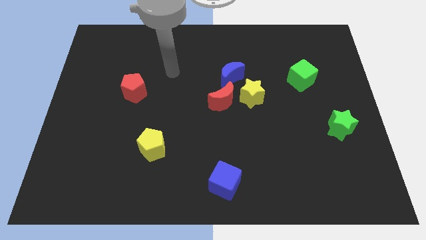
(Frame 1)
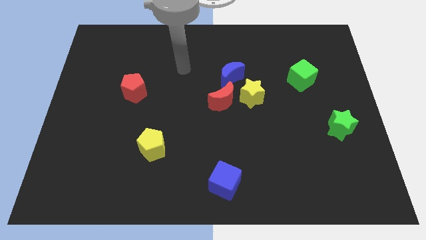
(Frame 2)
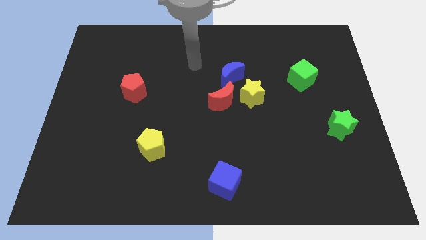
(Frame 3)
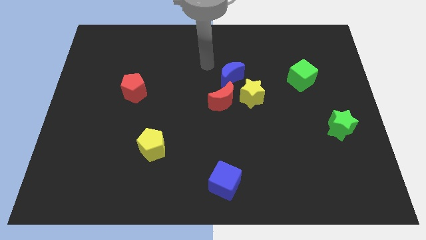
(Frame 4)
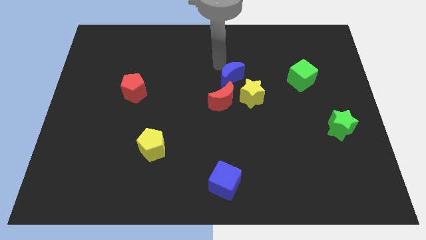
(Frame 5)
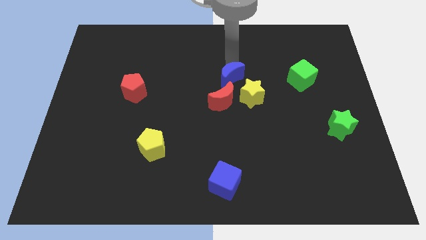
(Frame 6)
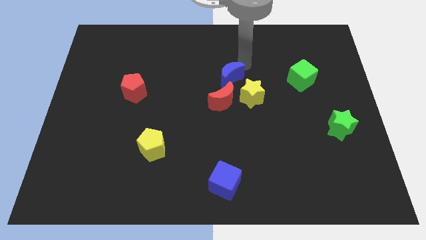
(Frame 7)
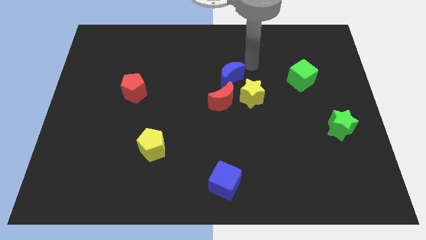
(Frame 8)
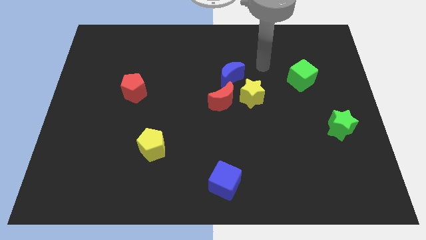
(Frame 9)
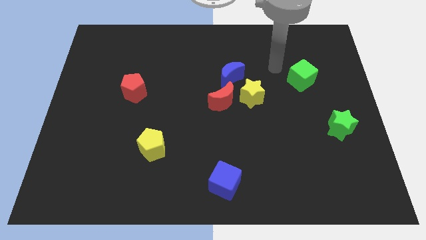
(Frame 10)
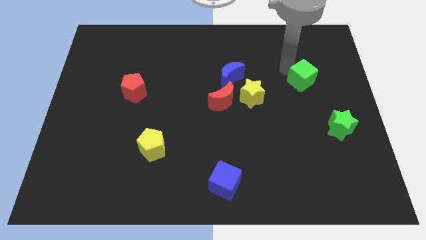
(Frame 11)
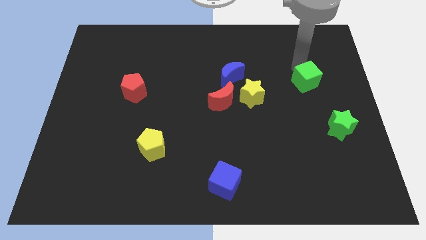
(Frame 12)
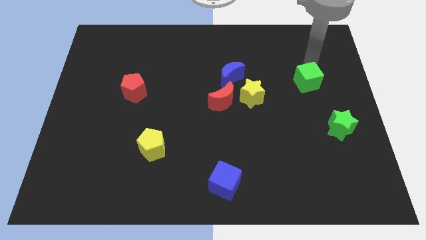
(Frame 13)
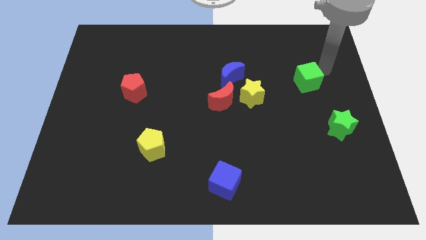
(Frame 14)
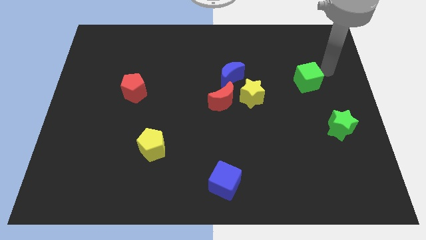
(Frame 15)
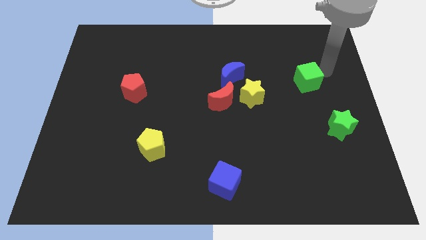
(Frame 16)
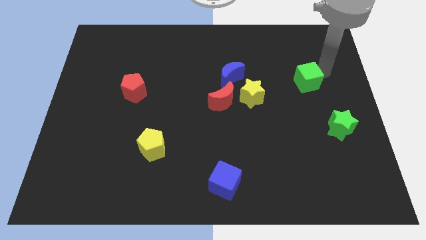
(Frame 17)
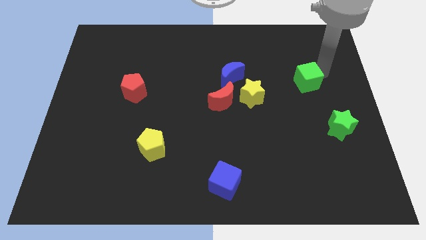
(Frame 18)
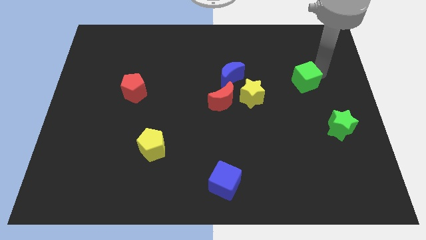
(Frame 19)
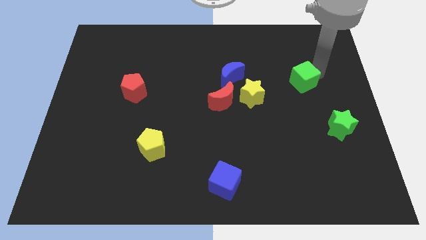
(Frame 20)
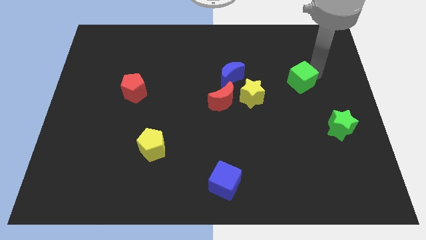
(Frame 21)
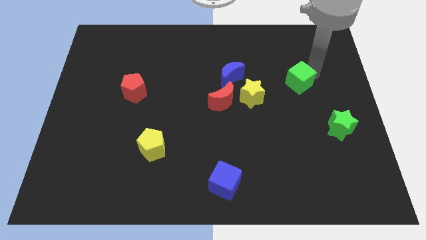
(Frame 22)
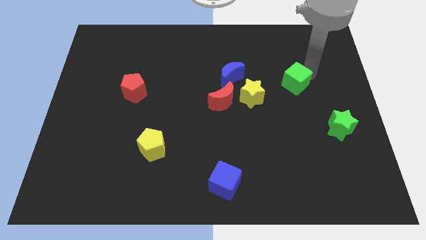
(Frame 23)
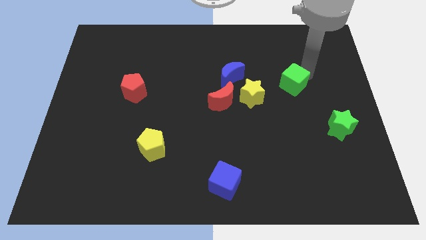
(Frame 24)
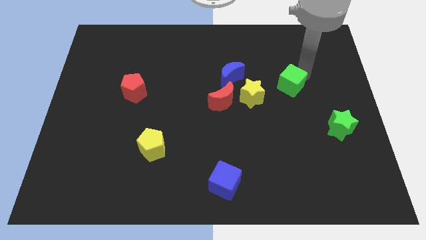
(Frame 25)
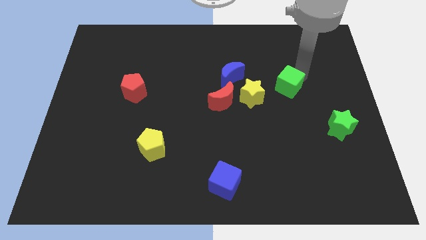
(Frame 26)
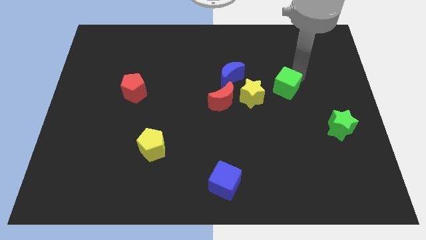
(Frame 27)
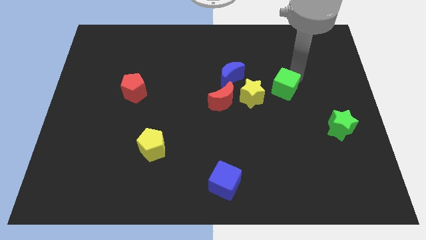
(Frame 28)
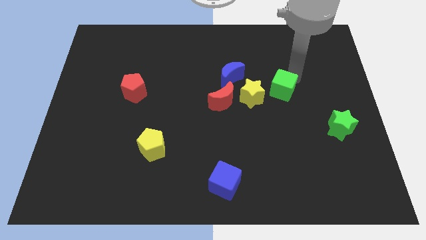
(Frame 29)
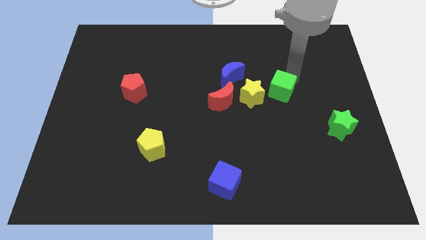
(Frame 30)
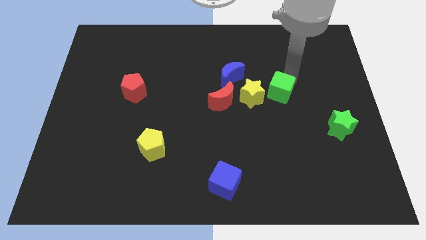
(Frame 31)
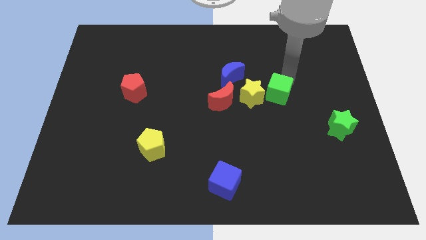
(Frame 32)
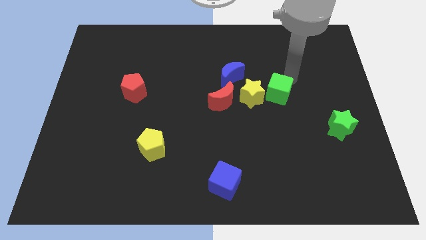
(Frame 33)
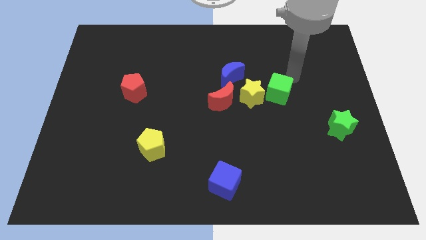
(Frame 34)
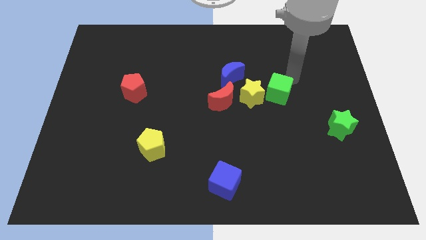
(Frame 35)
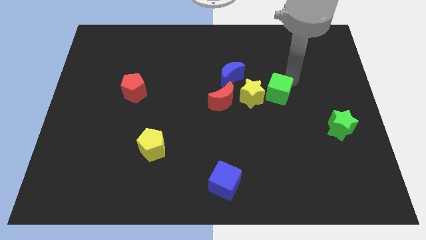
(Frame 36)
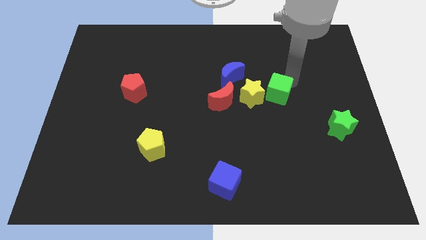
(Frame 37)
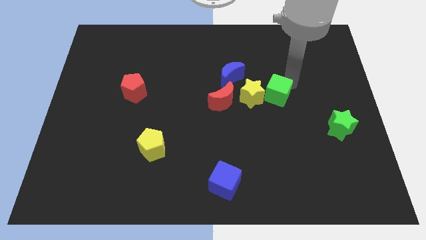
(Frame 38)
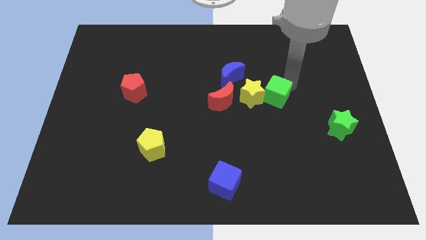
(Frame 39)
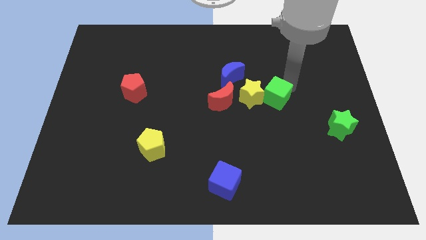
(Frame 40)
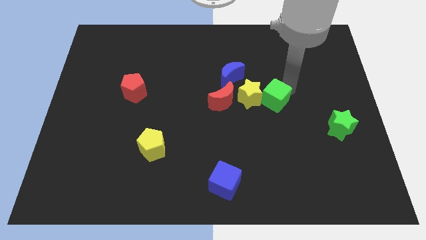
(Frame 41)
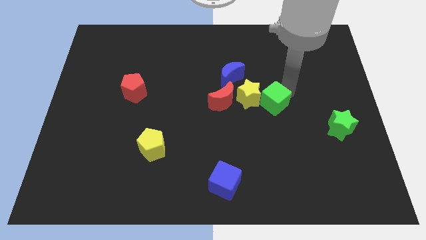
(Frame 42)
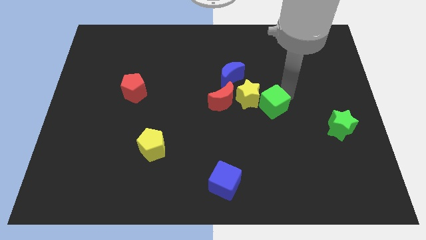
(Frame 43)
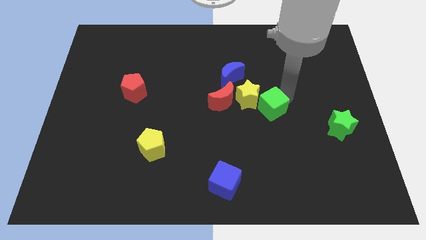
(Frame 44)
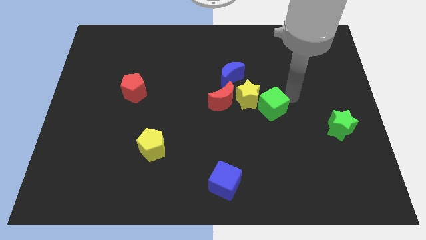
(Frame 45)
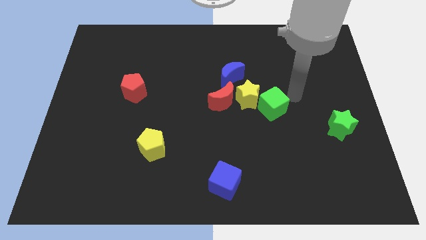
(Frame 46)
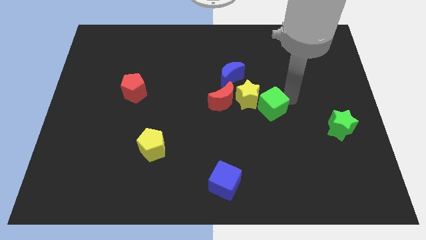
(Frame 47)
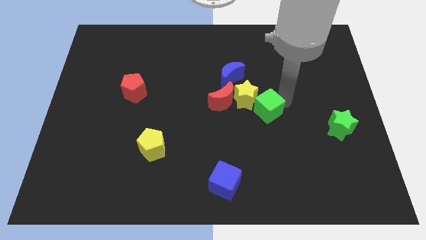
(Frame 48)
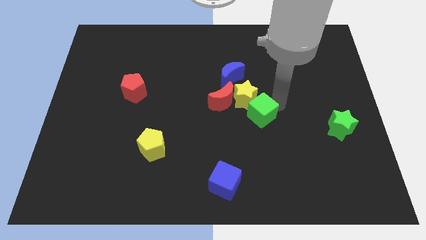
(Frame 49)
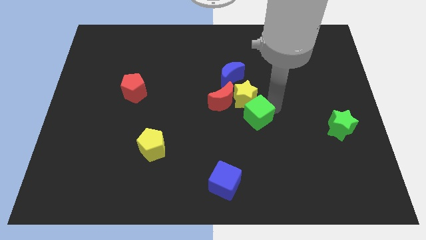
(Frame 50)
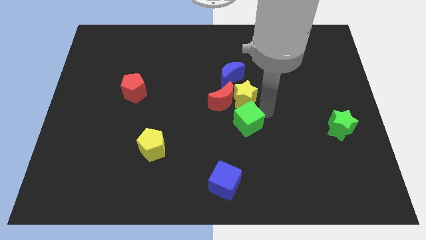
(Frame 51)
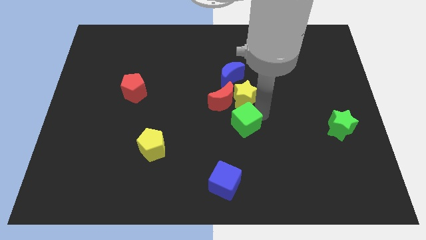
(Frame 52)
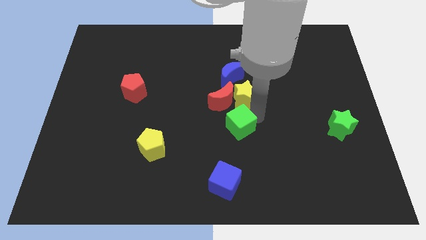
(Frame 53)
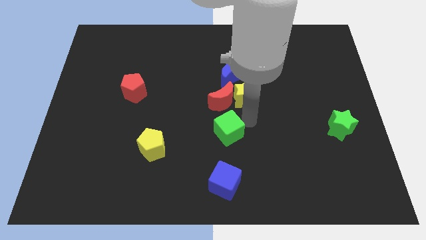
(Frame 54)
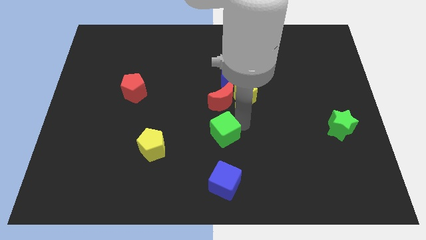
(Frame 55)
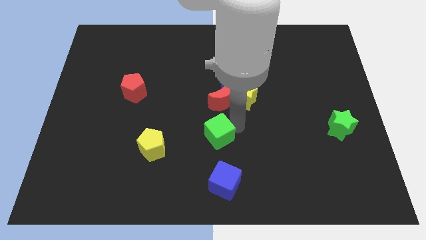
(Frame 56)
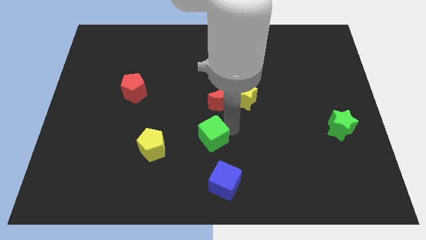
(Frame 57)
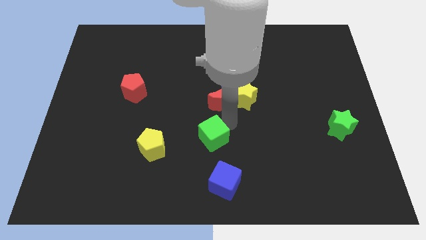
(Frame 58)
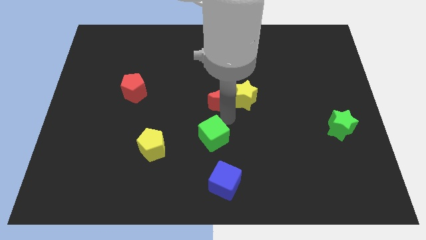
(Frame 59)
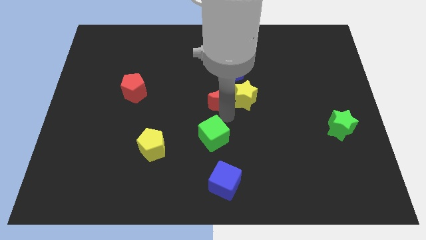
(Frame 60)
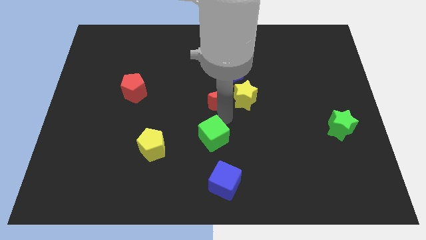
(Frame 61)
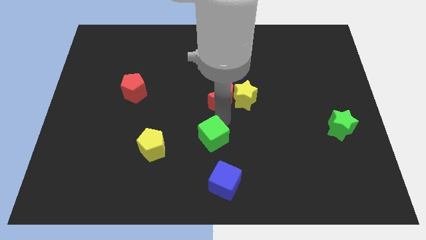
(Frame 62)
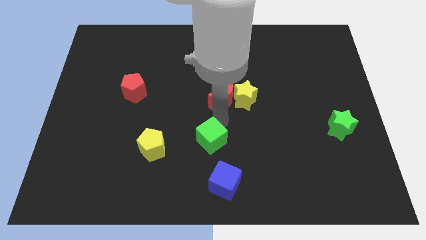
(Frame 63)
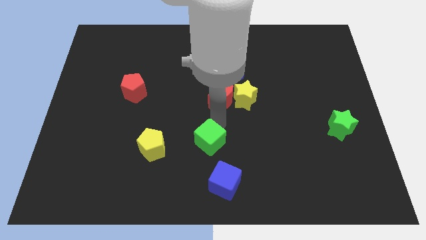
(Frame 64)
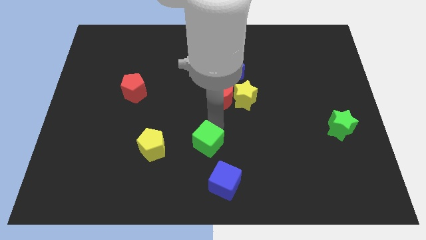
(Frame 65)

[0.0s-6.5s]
push the green cube to the top left of the blue cube
